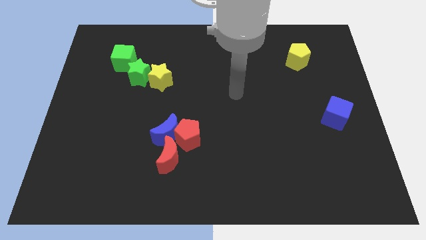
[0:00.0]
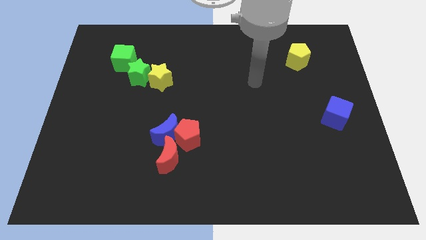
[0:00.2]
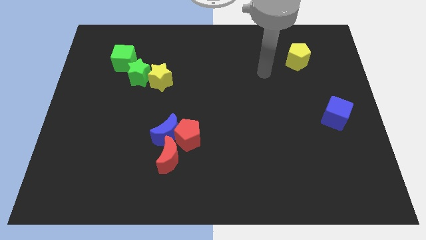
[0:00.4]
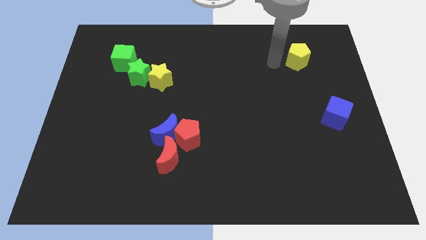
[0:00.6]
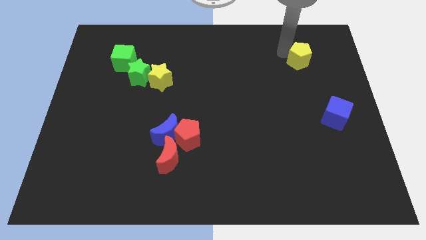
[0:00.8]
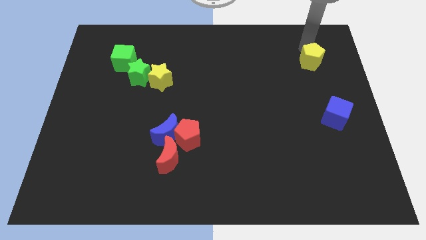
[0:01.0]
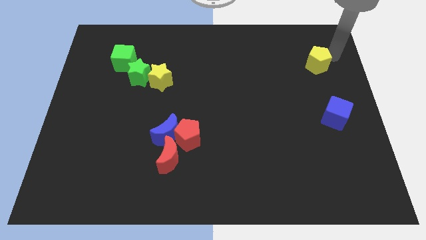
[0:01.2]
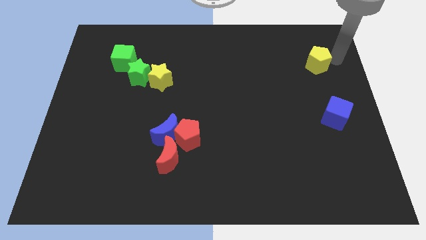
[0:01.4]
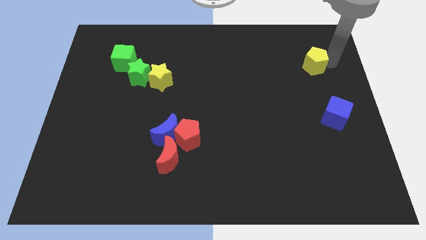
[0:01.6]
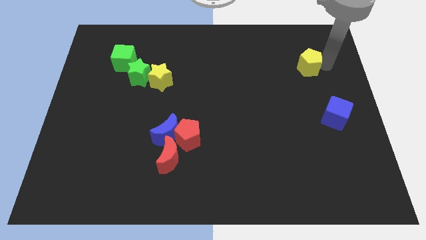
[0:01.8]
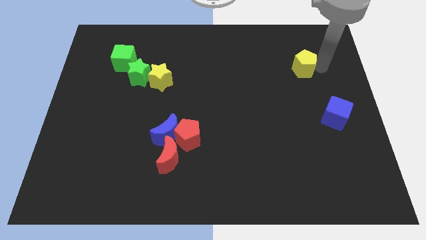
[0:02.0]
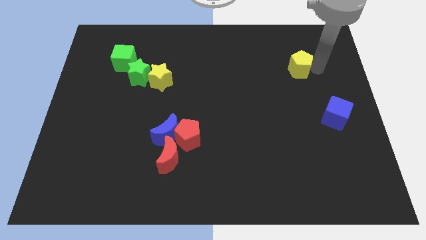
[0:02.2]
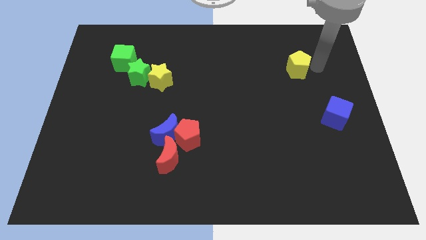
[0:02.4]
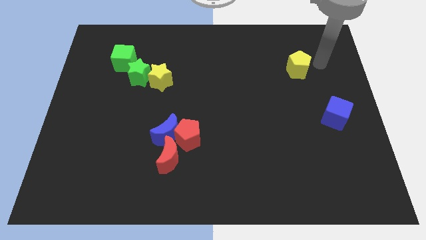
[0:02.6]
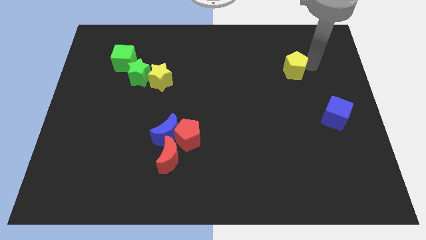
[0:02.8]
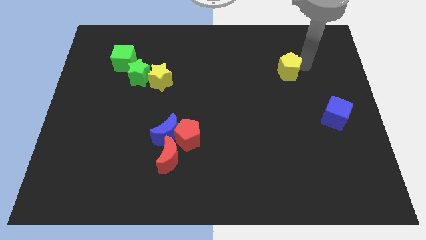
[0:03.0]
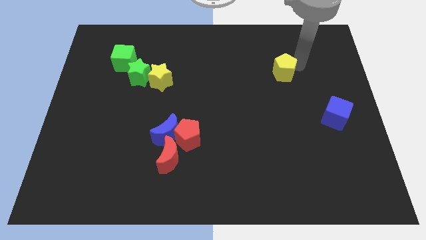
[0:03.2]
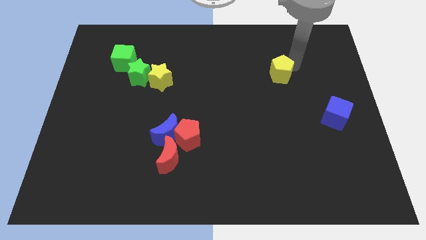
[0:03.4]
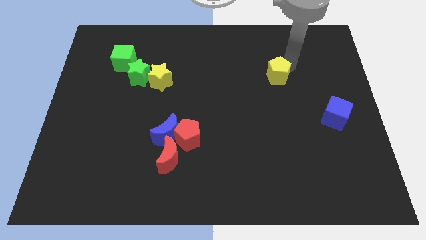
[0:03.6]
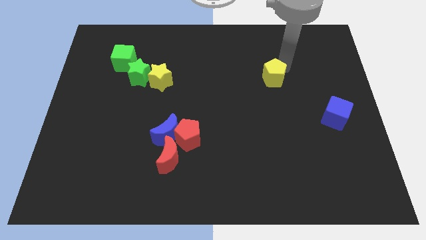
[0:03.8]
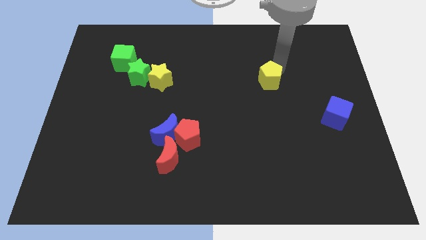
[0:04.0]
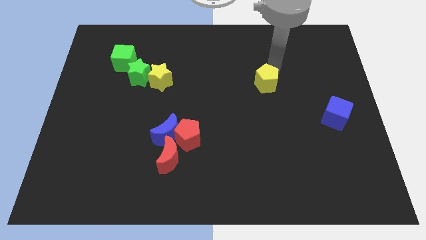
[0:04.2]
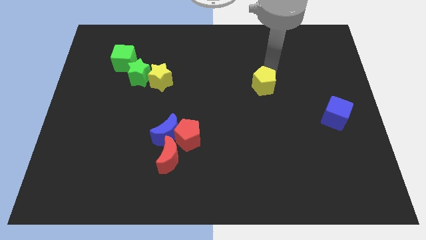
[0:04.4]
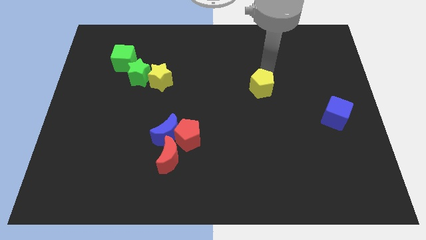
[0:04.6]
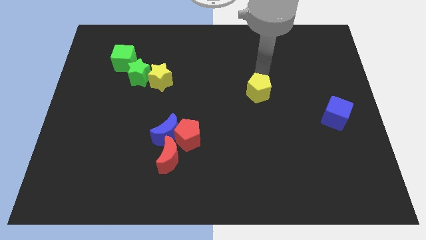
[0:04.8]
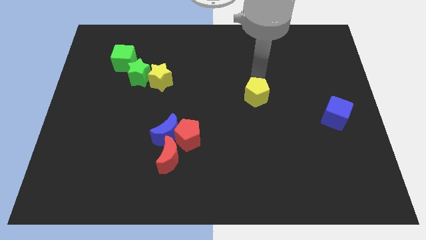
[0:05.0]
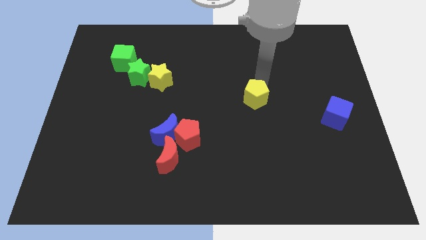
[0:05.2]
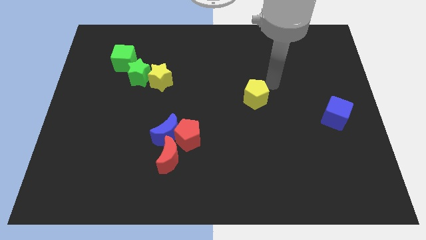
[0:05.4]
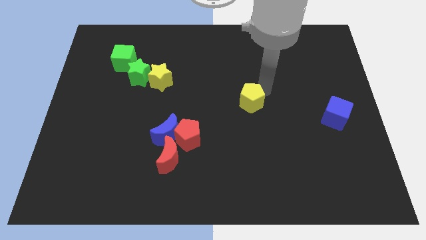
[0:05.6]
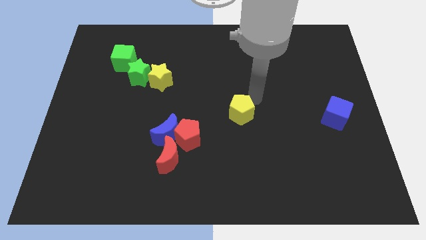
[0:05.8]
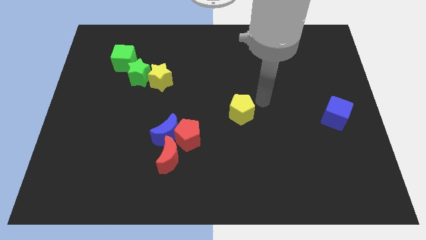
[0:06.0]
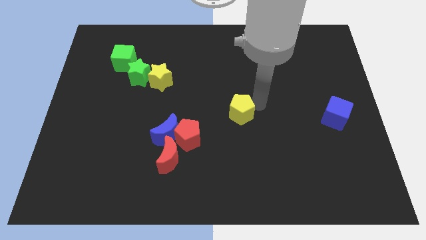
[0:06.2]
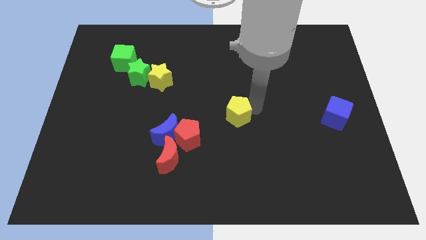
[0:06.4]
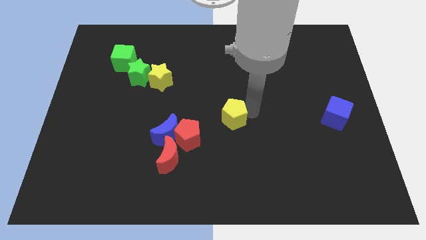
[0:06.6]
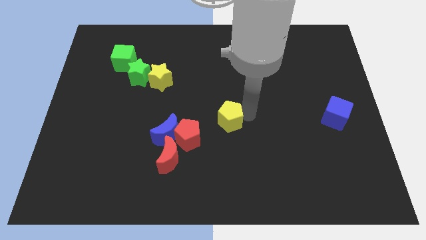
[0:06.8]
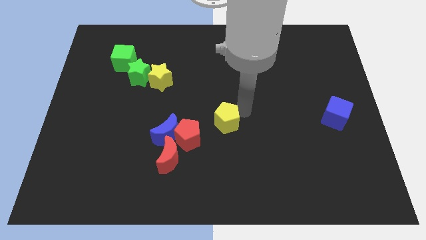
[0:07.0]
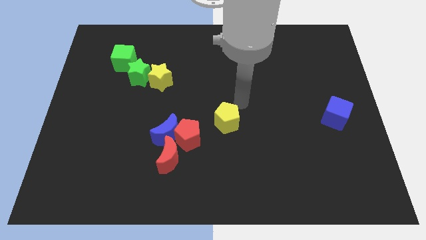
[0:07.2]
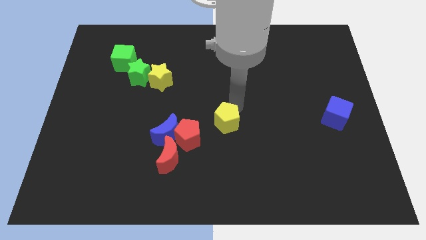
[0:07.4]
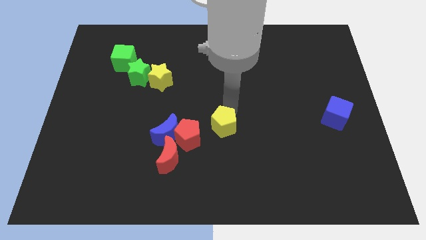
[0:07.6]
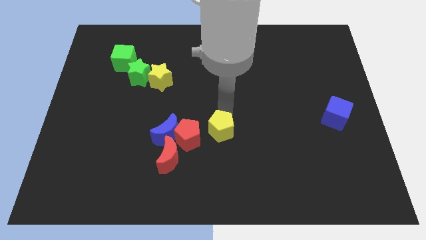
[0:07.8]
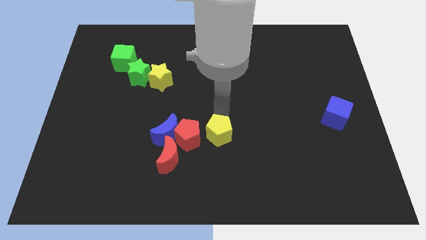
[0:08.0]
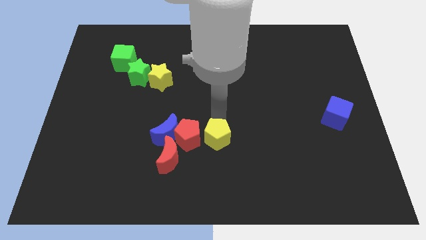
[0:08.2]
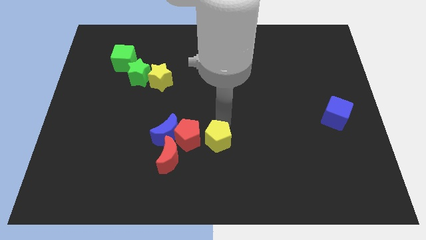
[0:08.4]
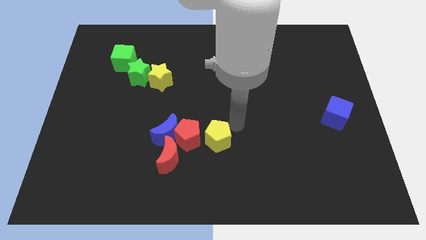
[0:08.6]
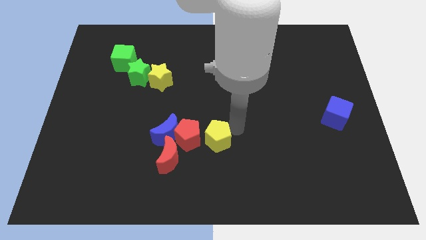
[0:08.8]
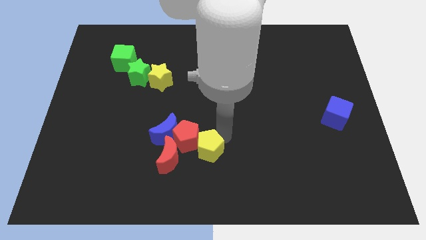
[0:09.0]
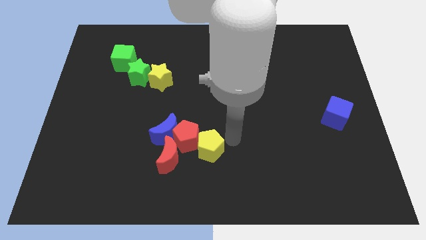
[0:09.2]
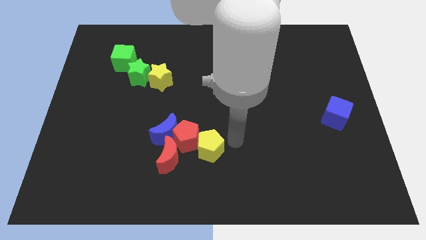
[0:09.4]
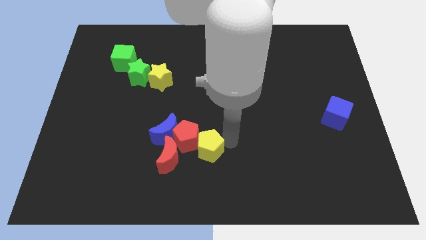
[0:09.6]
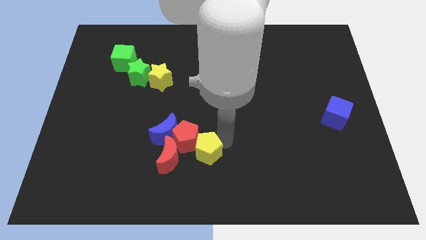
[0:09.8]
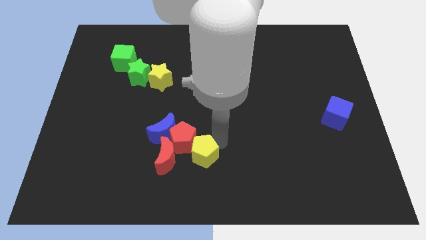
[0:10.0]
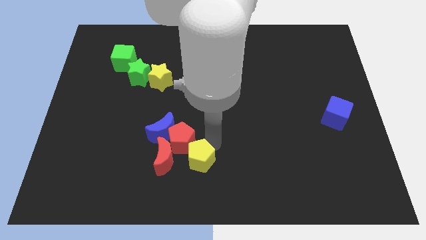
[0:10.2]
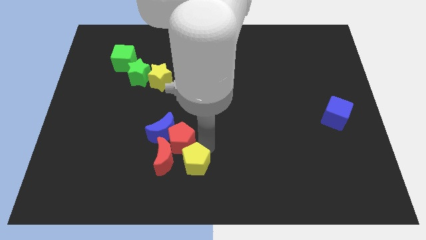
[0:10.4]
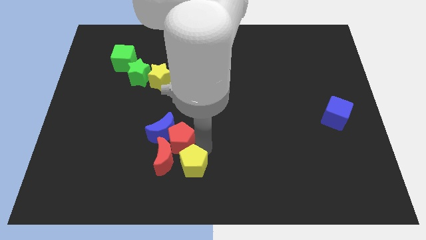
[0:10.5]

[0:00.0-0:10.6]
put the yellow pentagon towards the red moon

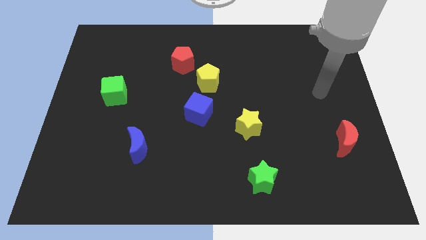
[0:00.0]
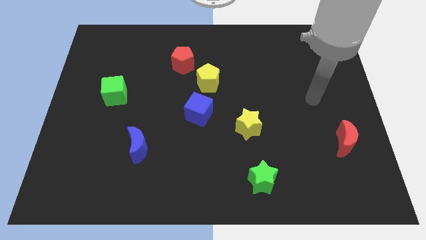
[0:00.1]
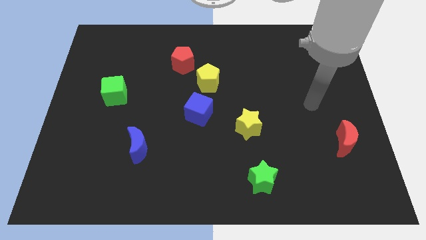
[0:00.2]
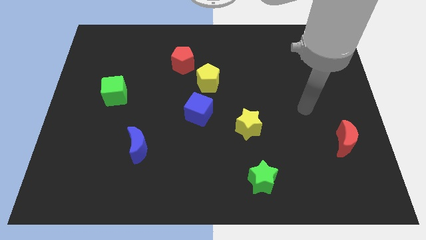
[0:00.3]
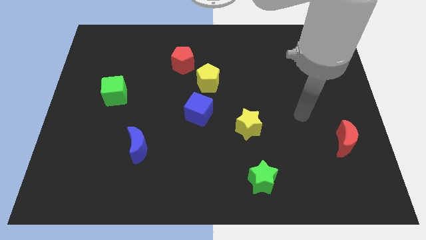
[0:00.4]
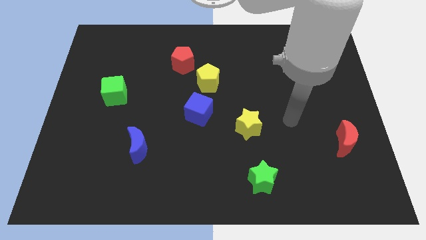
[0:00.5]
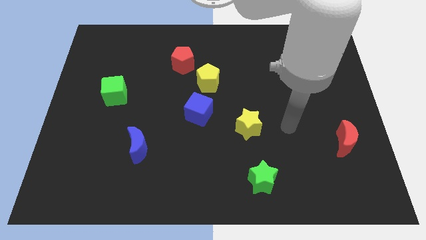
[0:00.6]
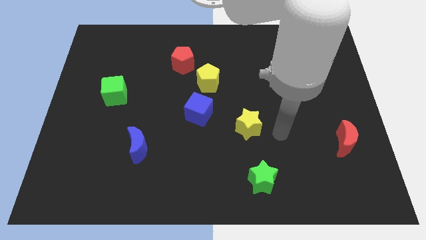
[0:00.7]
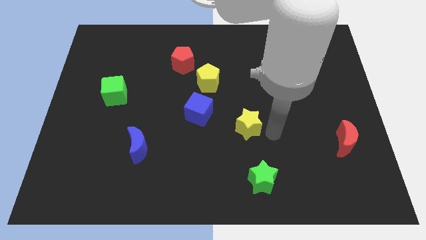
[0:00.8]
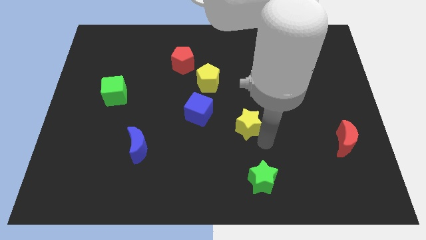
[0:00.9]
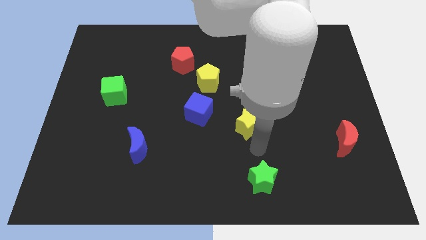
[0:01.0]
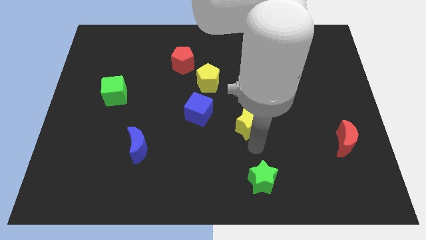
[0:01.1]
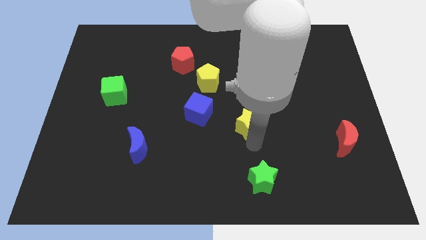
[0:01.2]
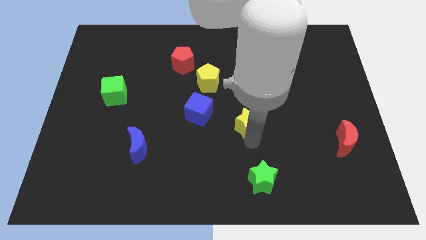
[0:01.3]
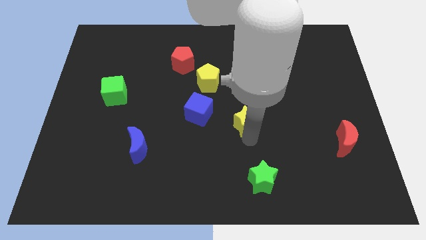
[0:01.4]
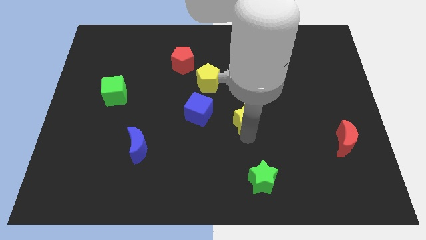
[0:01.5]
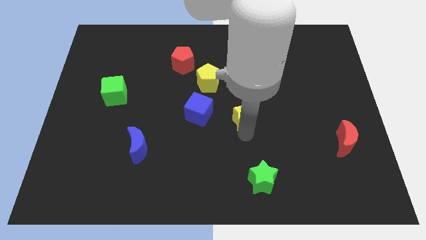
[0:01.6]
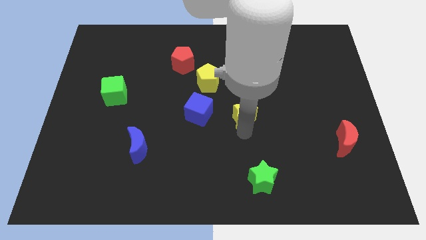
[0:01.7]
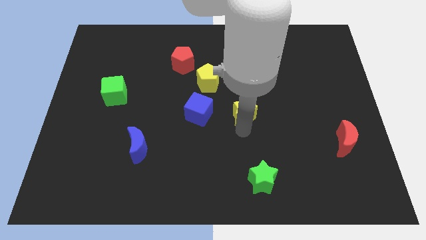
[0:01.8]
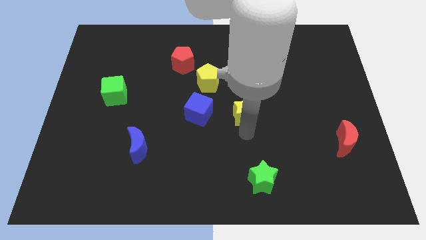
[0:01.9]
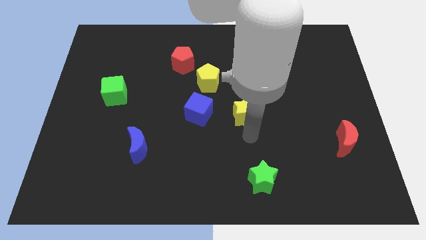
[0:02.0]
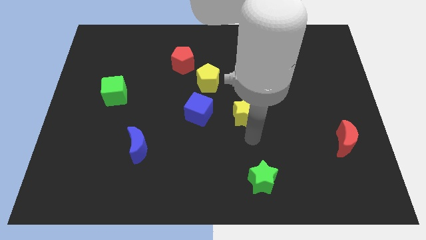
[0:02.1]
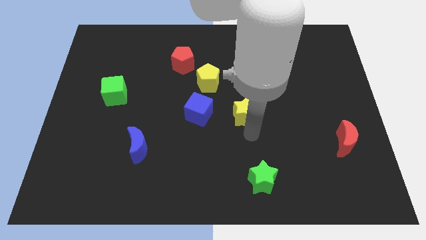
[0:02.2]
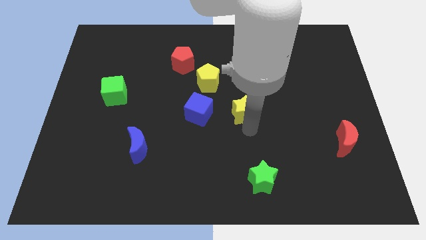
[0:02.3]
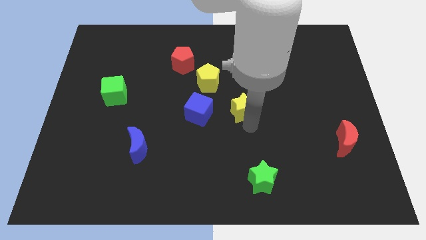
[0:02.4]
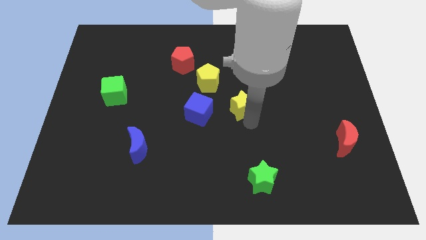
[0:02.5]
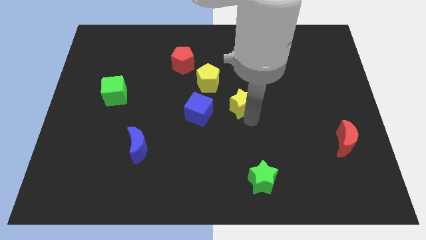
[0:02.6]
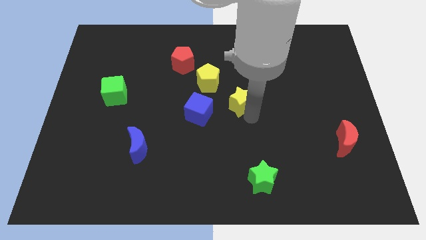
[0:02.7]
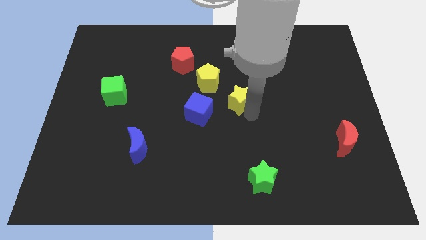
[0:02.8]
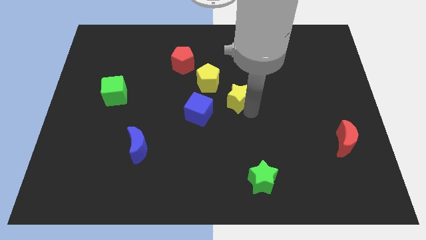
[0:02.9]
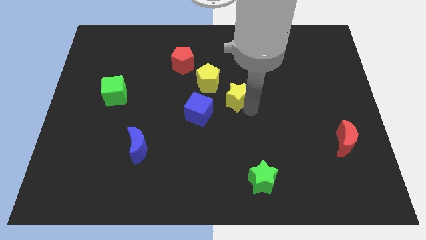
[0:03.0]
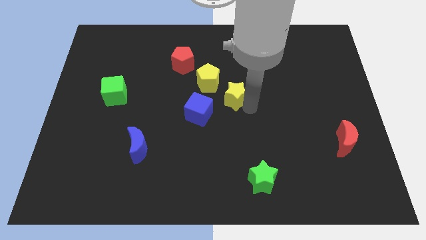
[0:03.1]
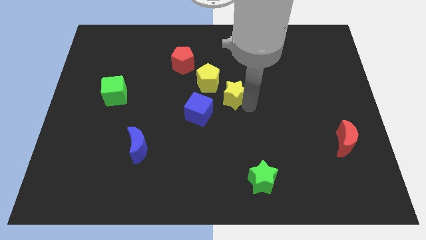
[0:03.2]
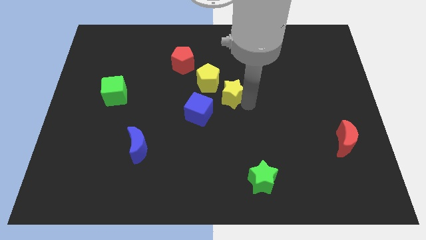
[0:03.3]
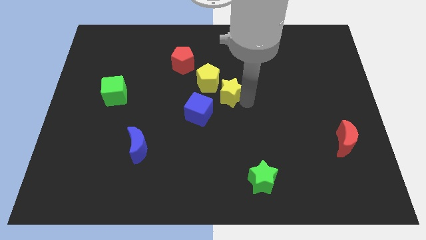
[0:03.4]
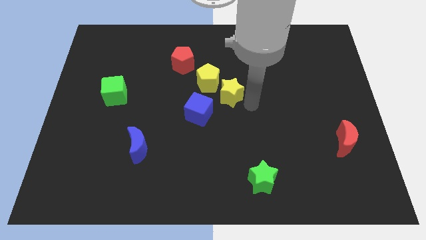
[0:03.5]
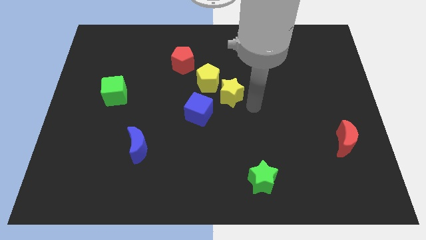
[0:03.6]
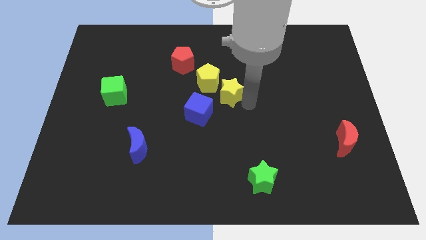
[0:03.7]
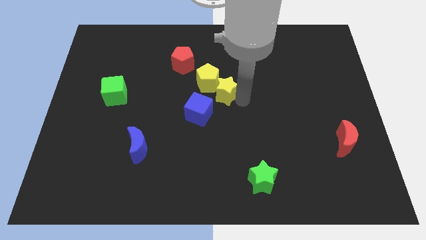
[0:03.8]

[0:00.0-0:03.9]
put the yellow star next to the yellow pentagon
